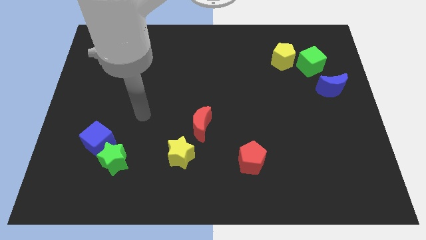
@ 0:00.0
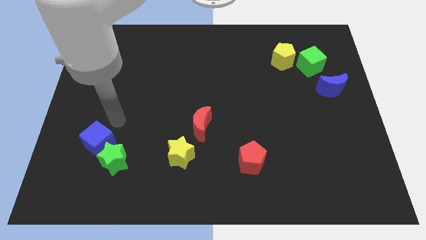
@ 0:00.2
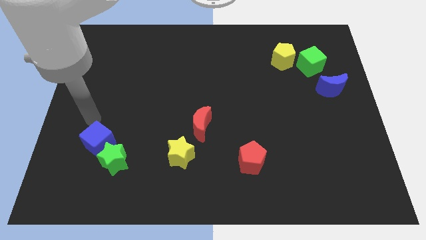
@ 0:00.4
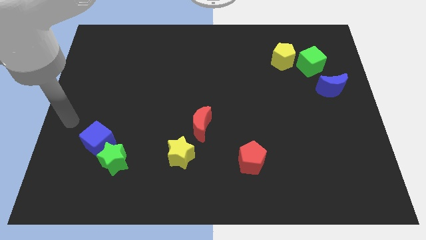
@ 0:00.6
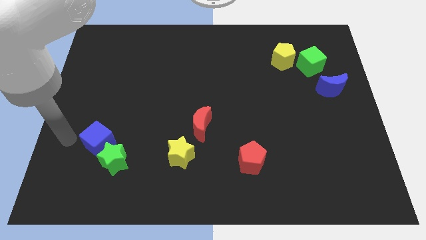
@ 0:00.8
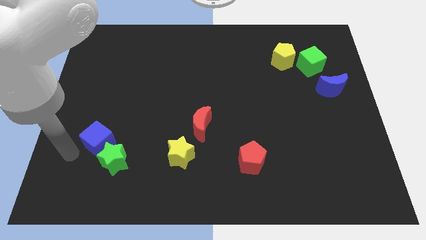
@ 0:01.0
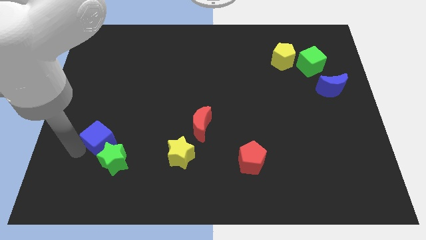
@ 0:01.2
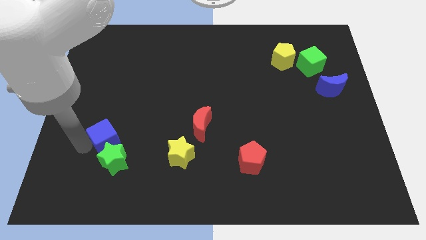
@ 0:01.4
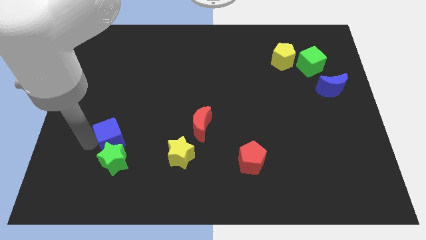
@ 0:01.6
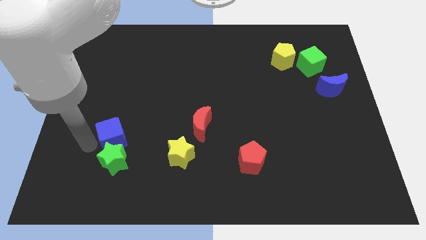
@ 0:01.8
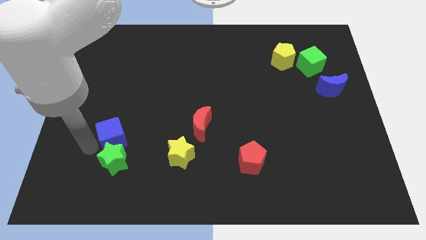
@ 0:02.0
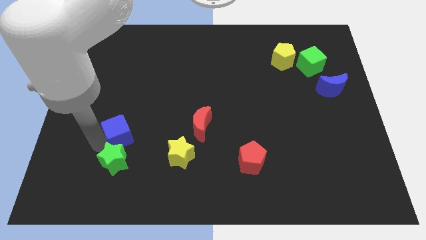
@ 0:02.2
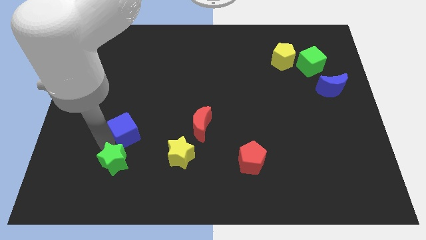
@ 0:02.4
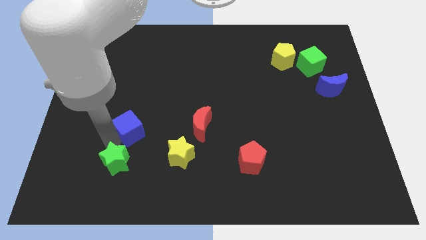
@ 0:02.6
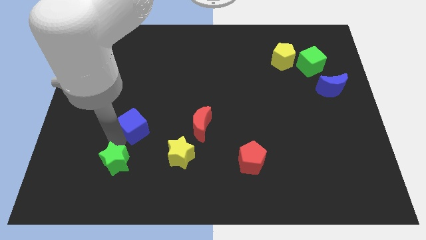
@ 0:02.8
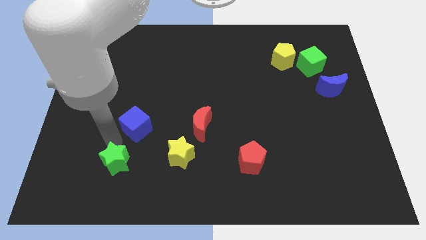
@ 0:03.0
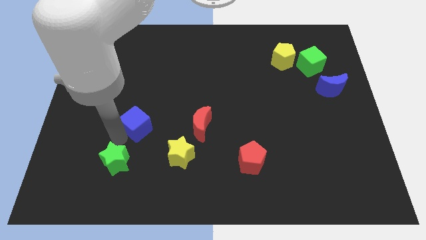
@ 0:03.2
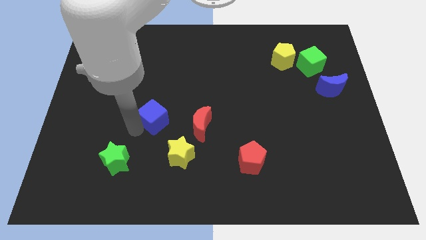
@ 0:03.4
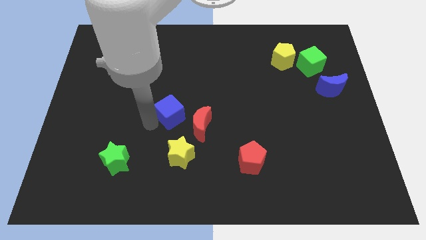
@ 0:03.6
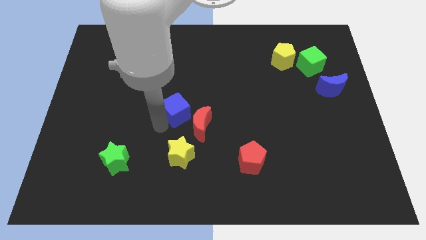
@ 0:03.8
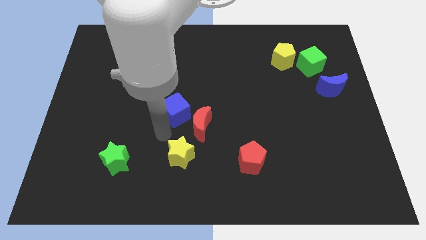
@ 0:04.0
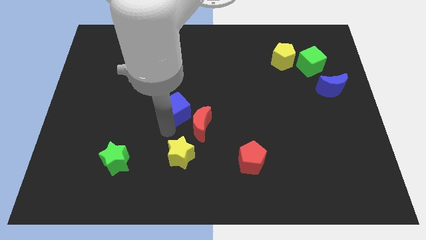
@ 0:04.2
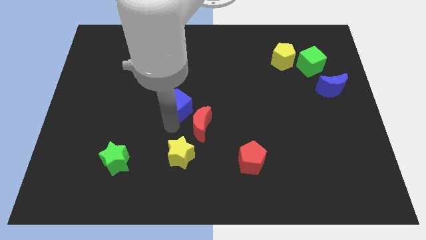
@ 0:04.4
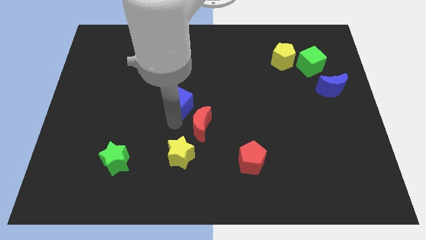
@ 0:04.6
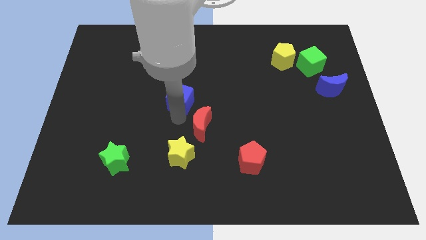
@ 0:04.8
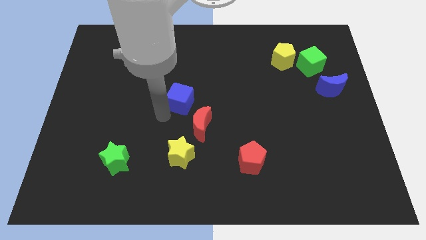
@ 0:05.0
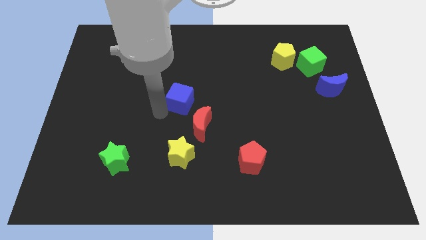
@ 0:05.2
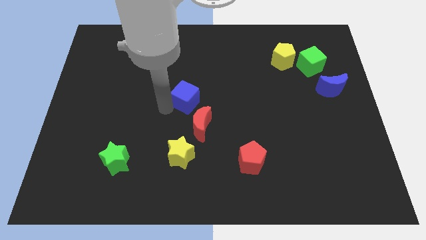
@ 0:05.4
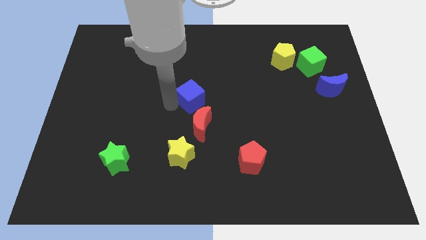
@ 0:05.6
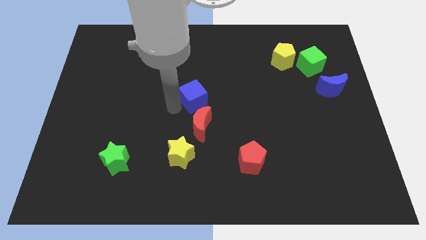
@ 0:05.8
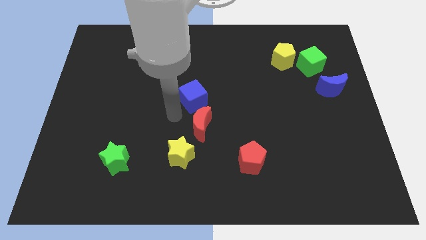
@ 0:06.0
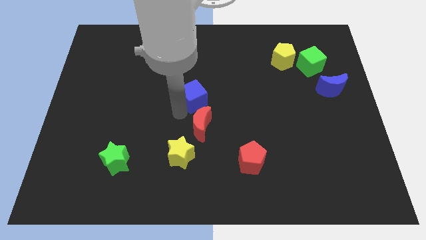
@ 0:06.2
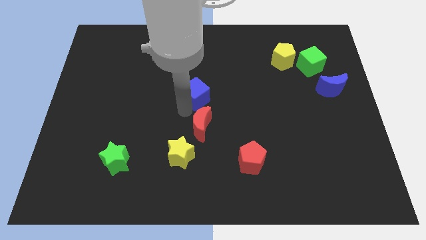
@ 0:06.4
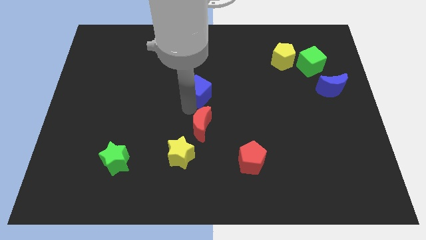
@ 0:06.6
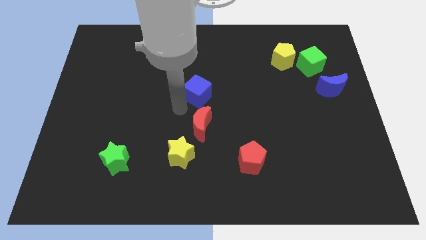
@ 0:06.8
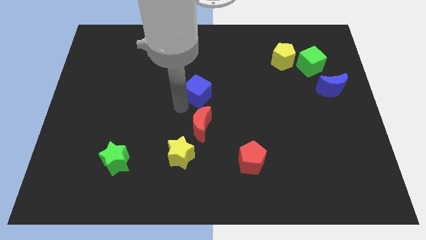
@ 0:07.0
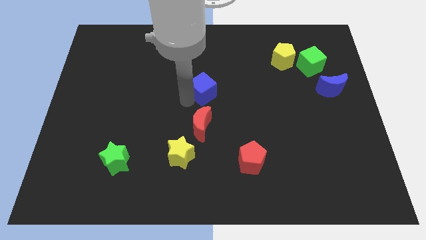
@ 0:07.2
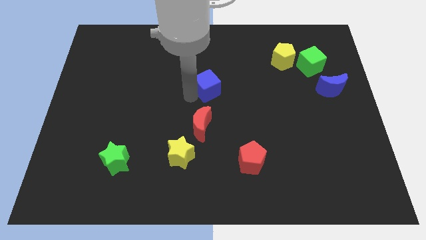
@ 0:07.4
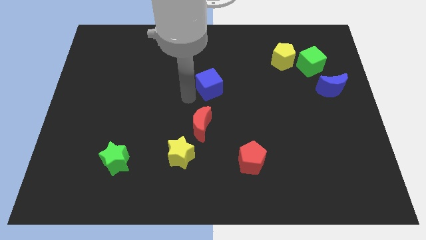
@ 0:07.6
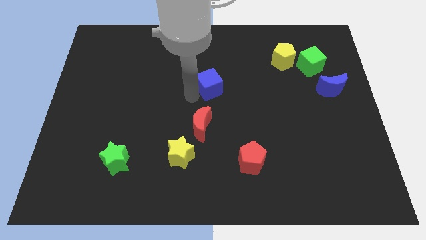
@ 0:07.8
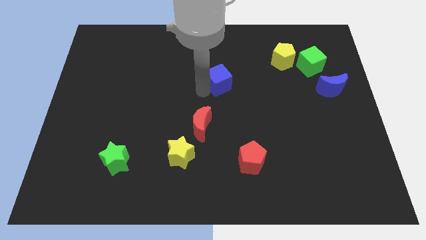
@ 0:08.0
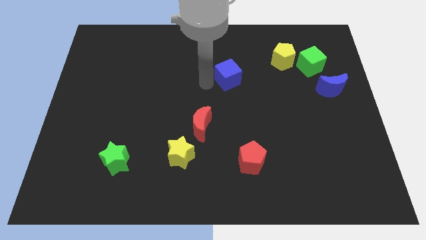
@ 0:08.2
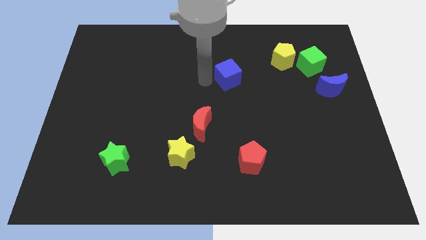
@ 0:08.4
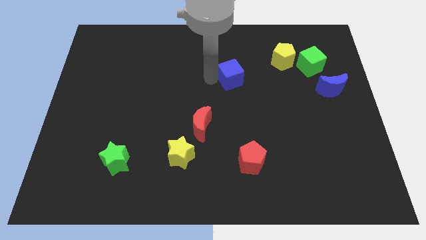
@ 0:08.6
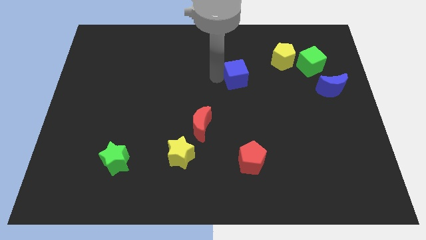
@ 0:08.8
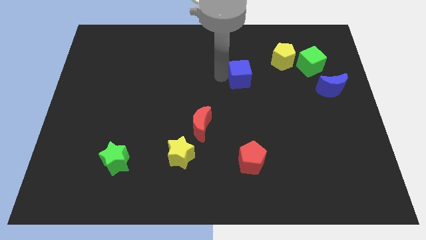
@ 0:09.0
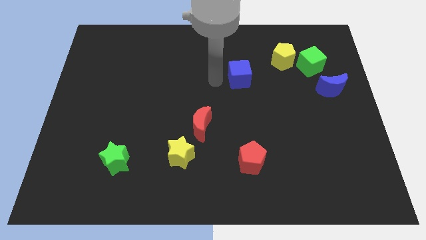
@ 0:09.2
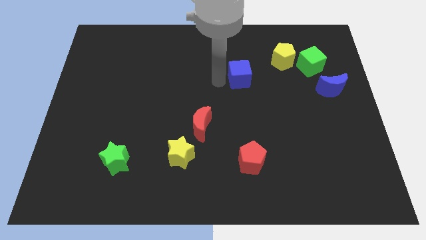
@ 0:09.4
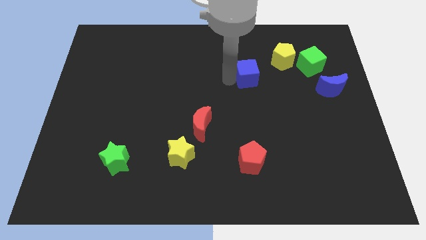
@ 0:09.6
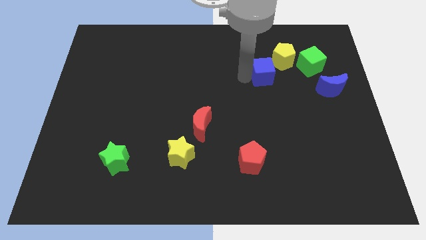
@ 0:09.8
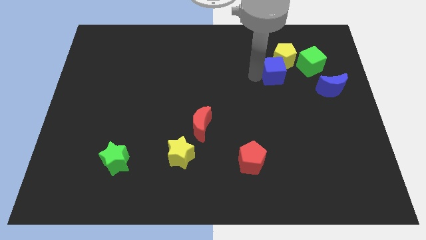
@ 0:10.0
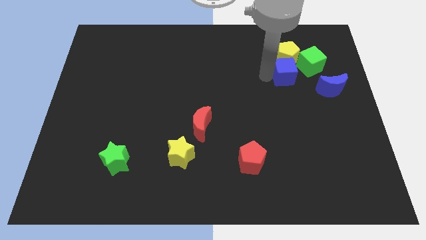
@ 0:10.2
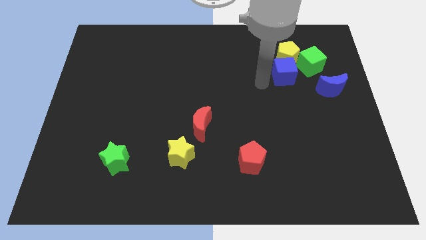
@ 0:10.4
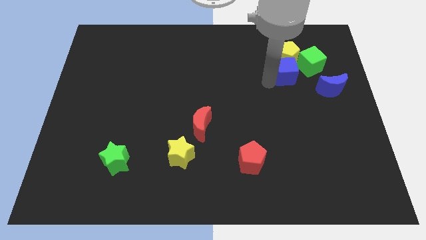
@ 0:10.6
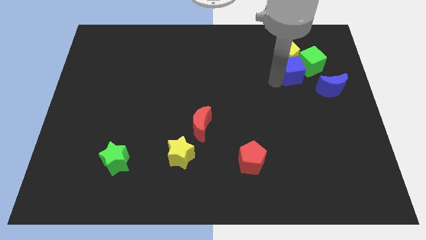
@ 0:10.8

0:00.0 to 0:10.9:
put the blue cube close to the green cube

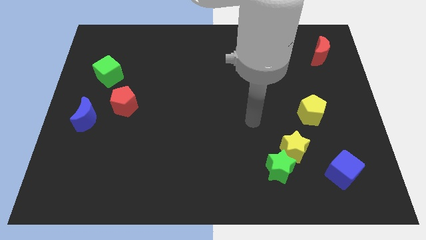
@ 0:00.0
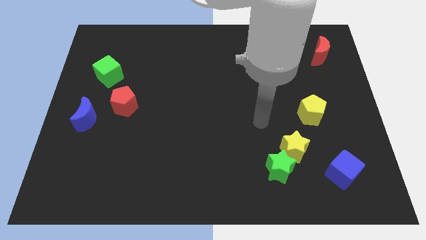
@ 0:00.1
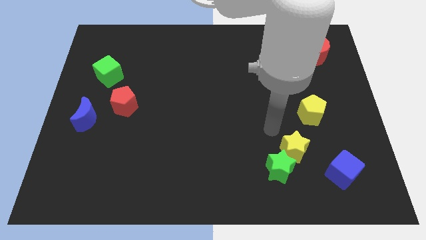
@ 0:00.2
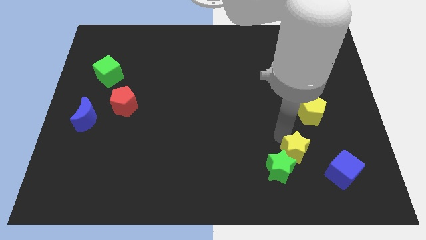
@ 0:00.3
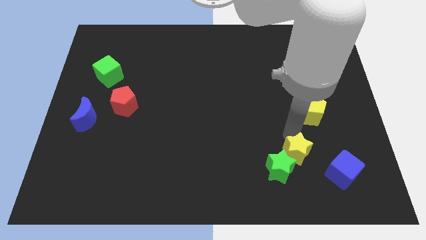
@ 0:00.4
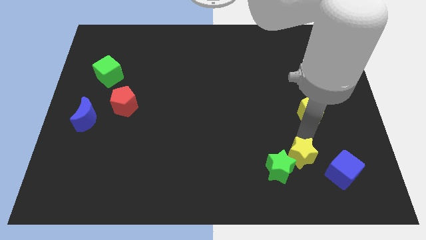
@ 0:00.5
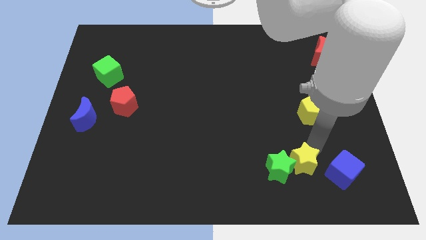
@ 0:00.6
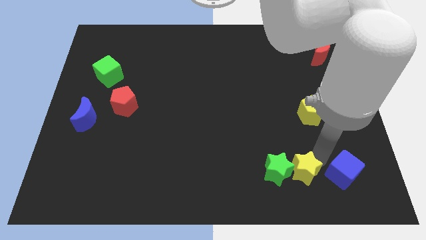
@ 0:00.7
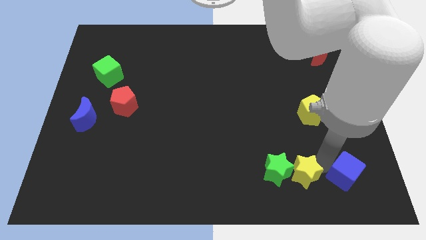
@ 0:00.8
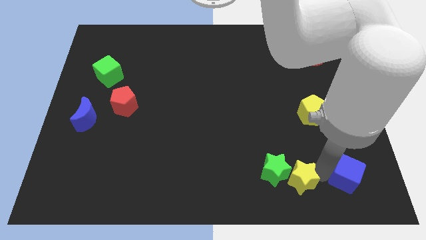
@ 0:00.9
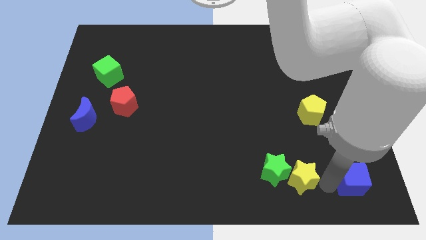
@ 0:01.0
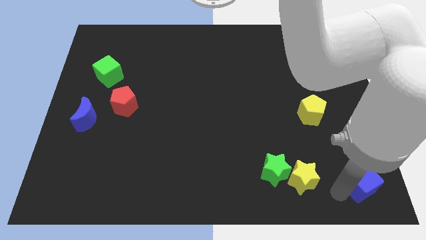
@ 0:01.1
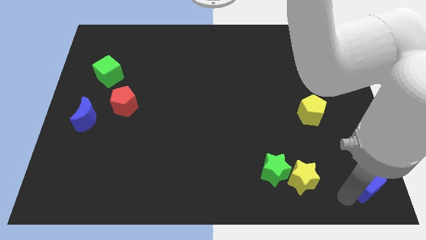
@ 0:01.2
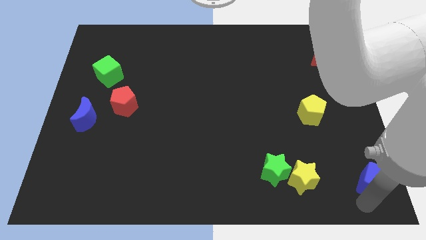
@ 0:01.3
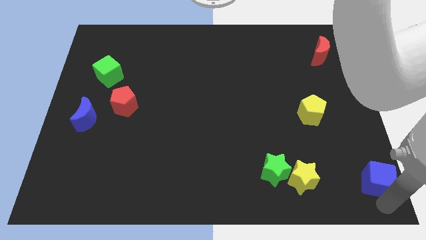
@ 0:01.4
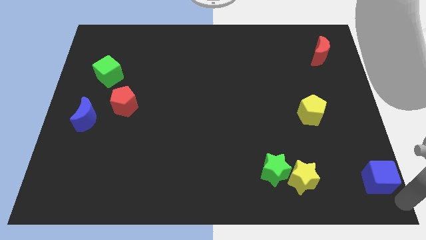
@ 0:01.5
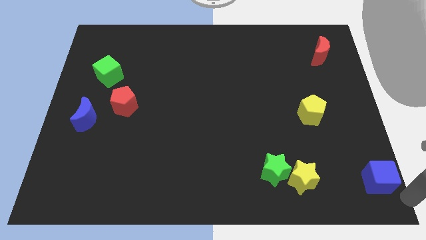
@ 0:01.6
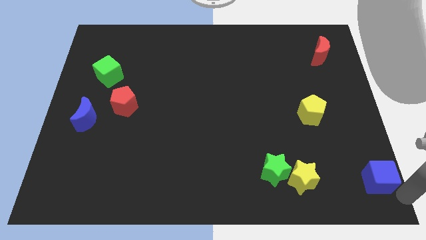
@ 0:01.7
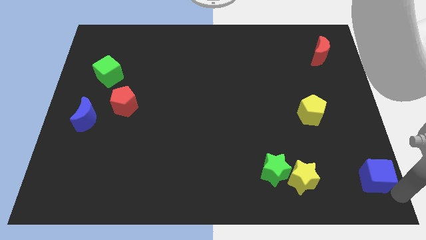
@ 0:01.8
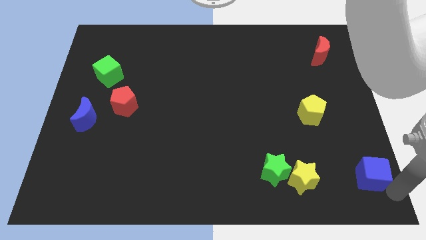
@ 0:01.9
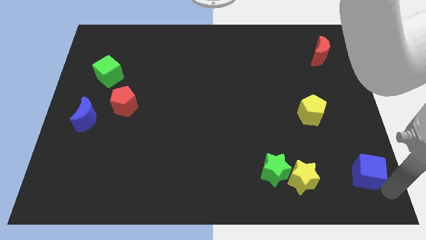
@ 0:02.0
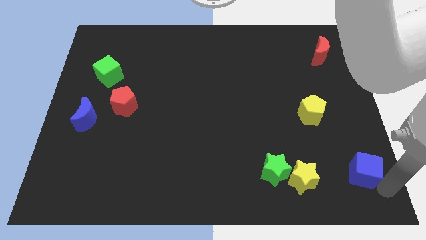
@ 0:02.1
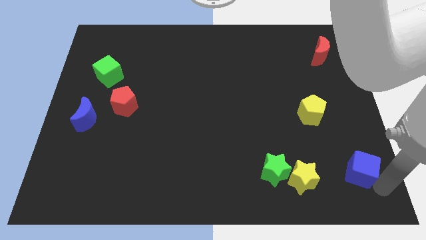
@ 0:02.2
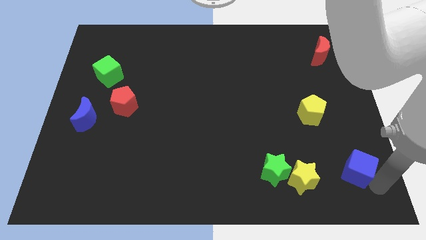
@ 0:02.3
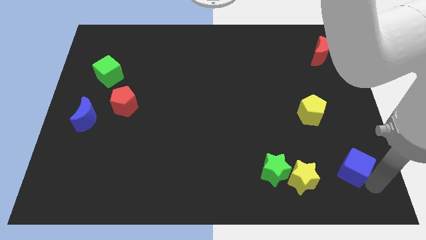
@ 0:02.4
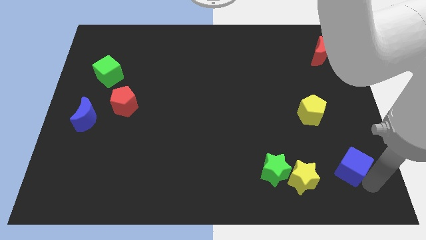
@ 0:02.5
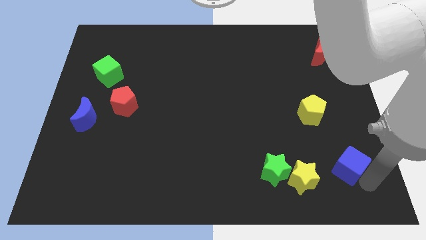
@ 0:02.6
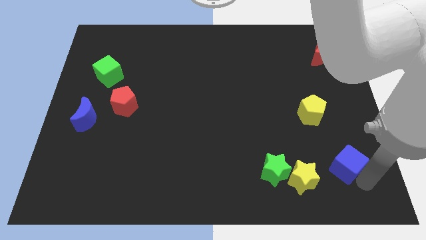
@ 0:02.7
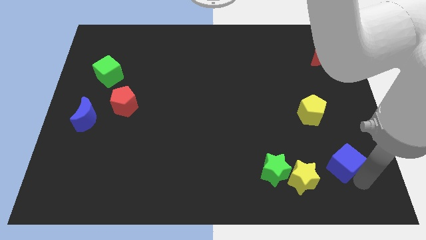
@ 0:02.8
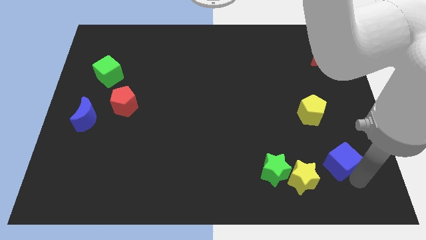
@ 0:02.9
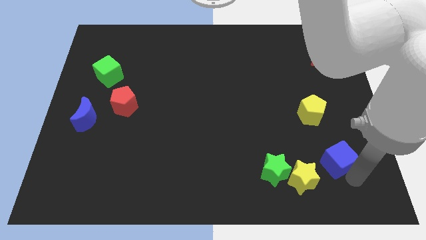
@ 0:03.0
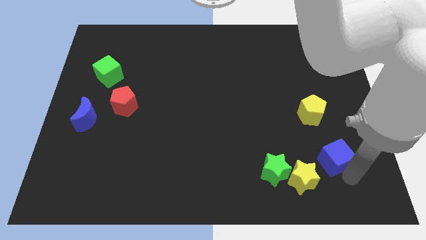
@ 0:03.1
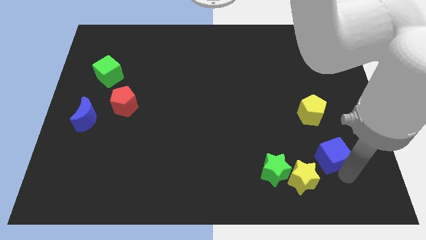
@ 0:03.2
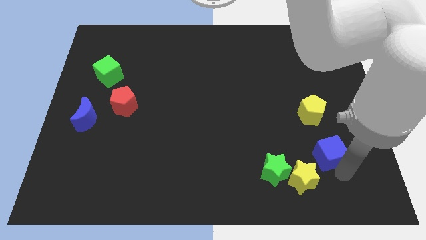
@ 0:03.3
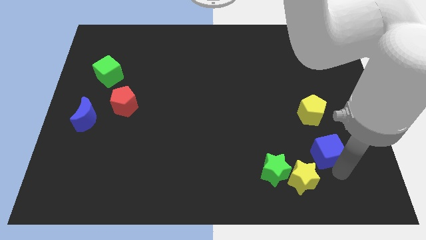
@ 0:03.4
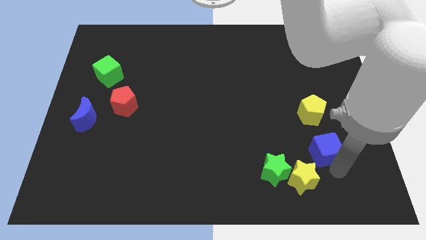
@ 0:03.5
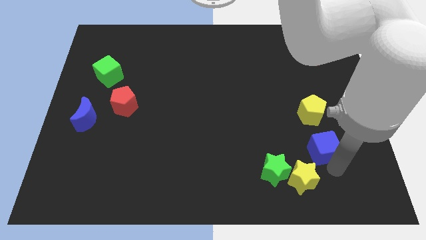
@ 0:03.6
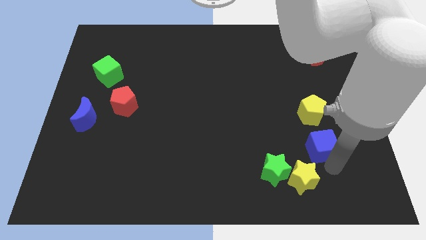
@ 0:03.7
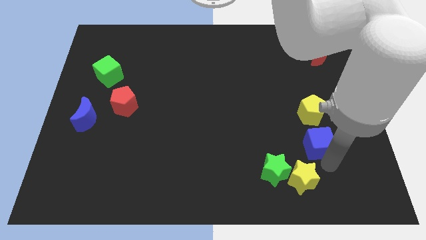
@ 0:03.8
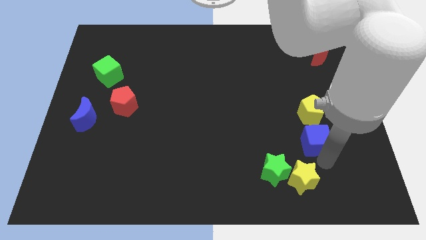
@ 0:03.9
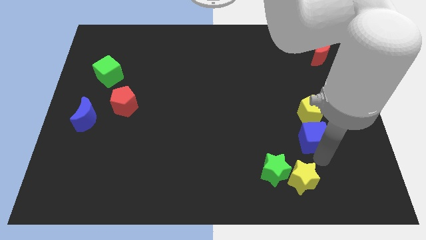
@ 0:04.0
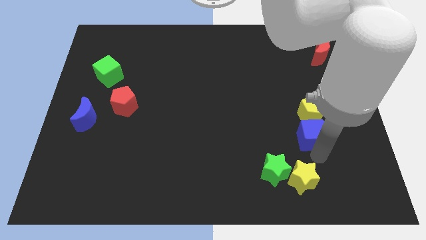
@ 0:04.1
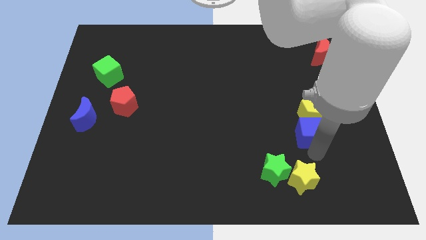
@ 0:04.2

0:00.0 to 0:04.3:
move the blue cube close to the yellow pentagon
